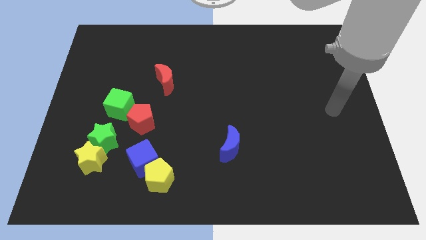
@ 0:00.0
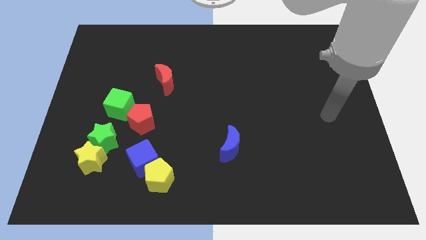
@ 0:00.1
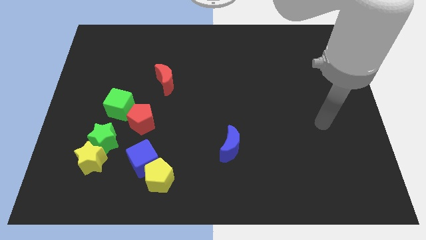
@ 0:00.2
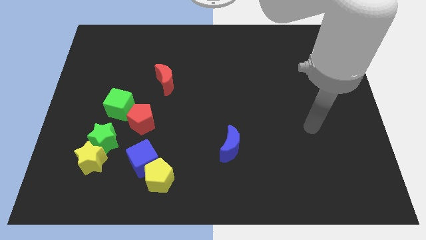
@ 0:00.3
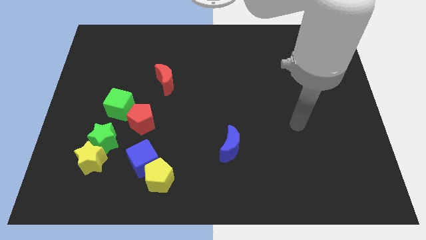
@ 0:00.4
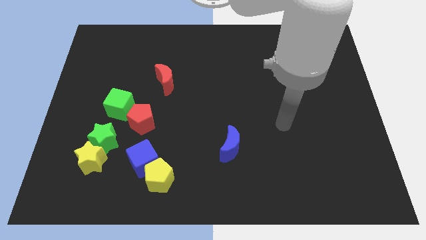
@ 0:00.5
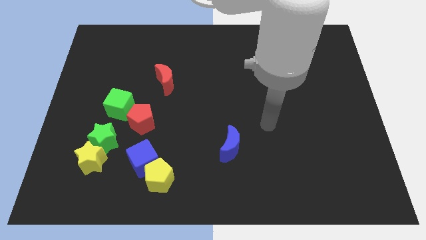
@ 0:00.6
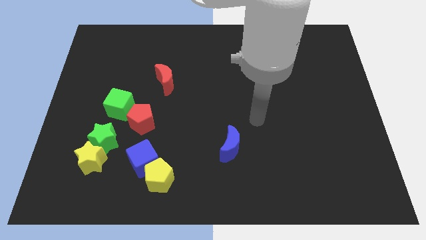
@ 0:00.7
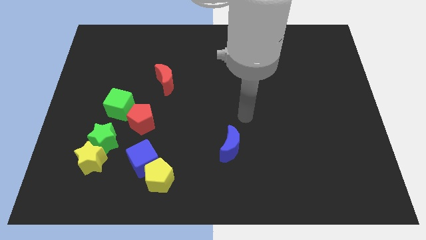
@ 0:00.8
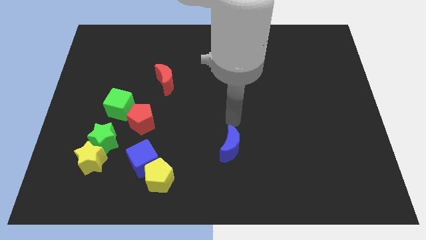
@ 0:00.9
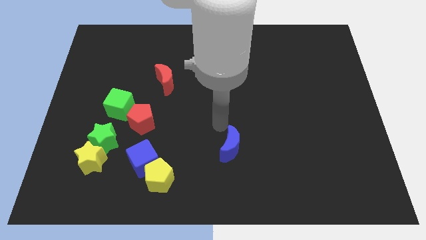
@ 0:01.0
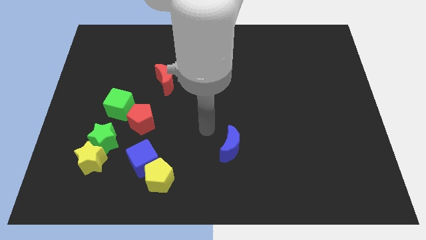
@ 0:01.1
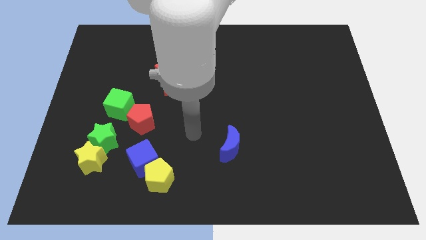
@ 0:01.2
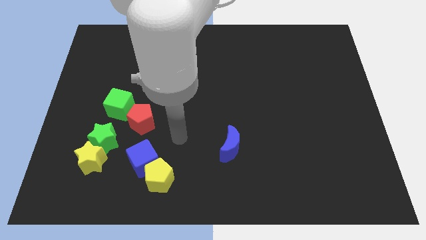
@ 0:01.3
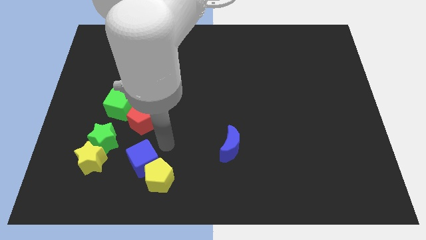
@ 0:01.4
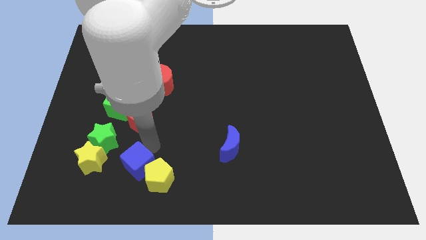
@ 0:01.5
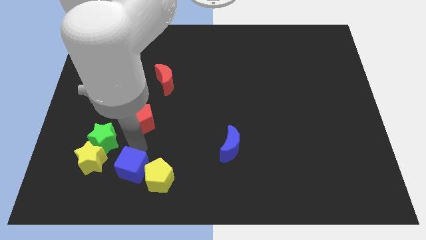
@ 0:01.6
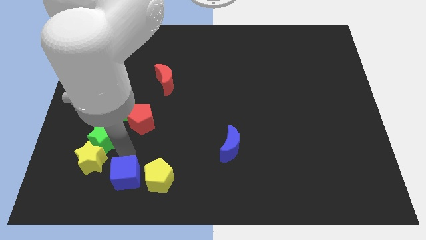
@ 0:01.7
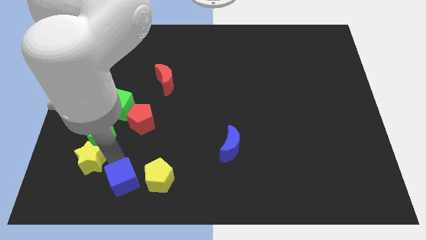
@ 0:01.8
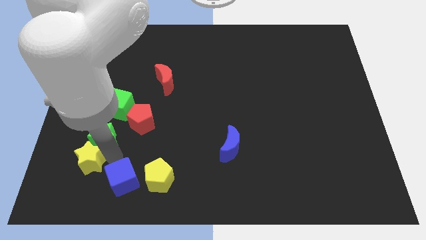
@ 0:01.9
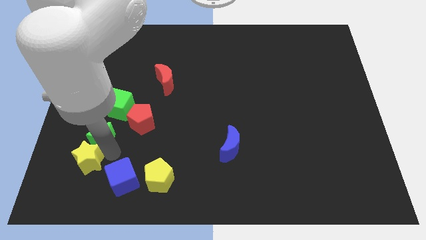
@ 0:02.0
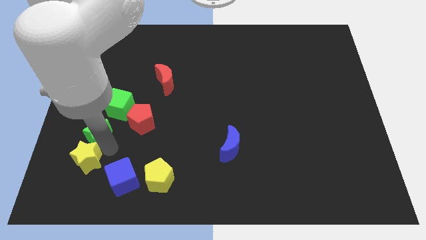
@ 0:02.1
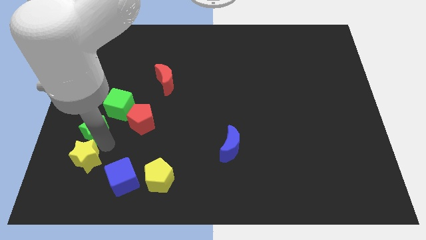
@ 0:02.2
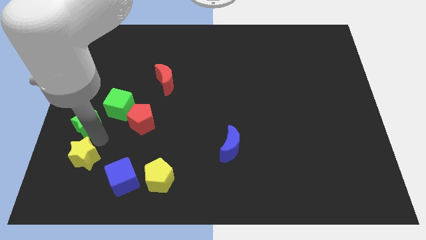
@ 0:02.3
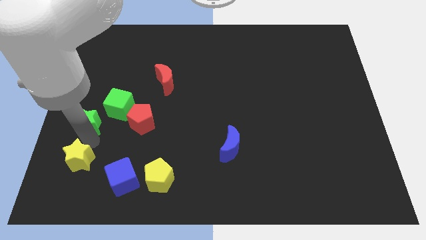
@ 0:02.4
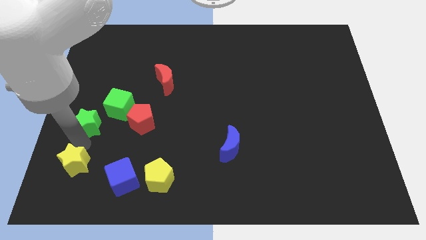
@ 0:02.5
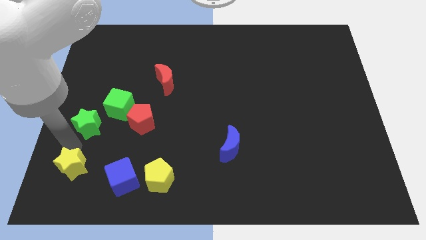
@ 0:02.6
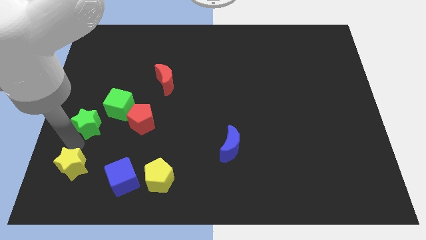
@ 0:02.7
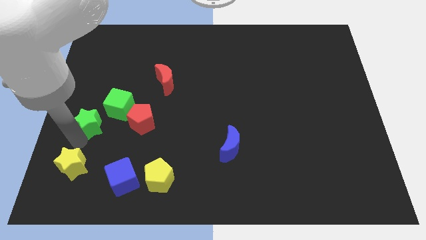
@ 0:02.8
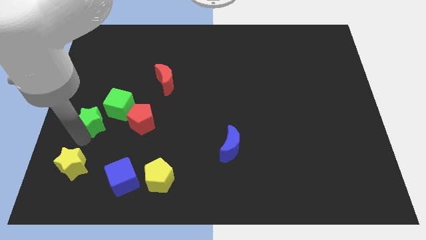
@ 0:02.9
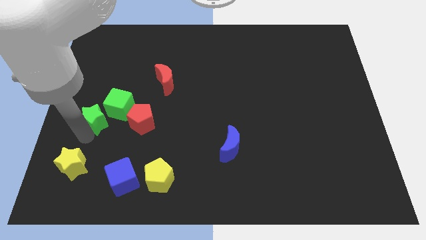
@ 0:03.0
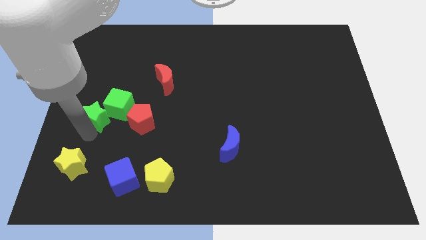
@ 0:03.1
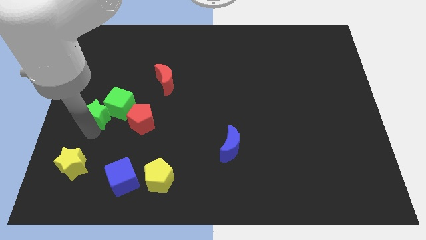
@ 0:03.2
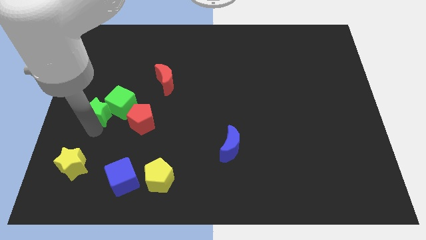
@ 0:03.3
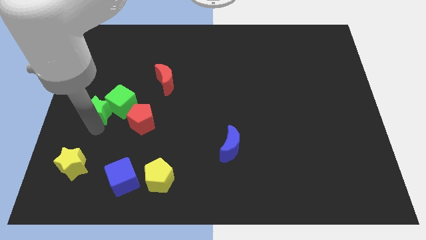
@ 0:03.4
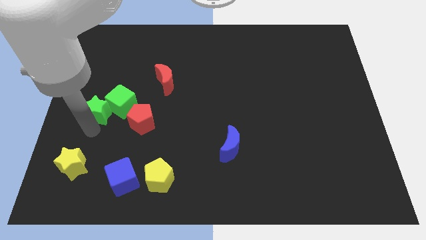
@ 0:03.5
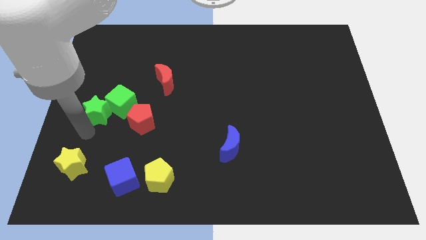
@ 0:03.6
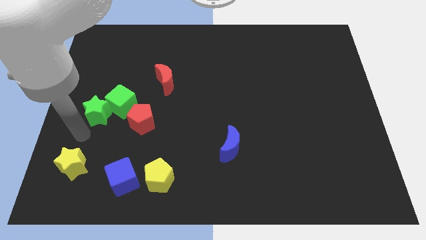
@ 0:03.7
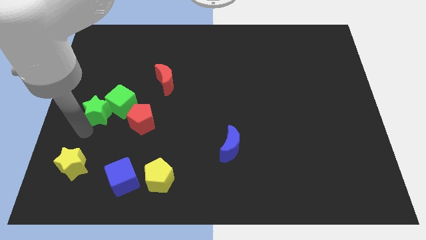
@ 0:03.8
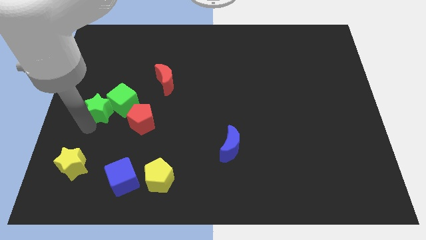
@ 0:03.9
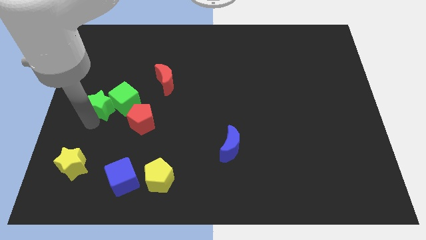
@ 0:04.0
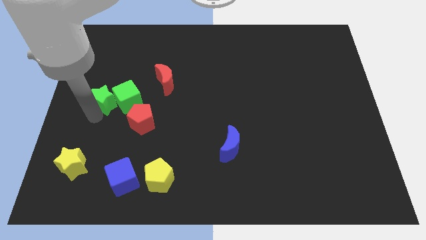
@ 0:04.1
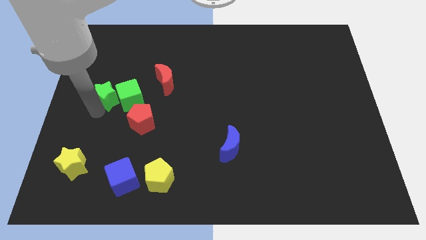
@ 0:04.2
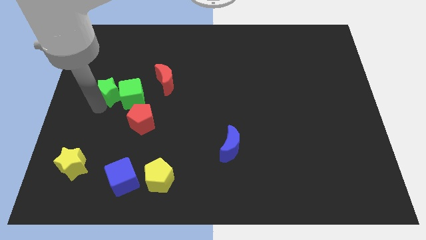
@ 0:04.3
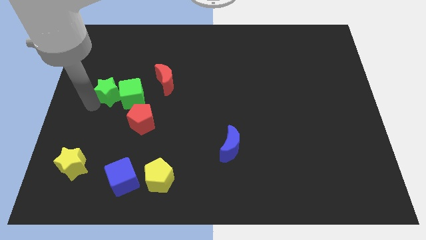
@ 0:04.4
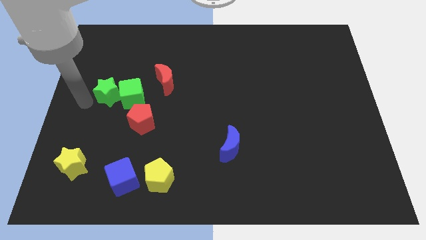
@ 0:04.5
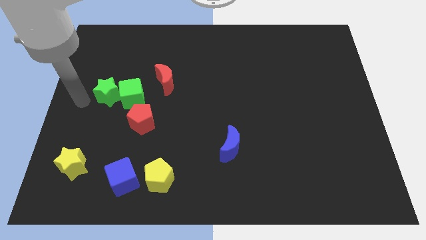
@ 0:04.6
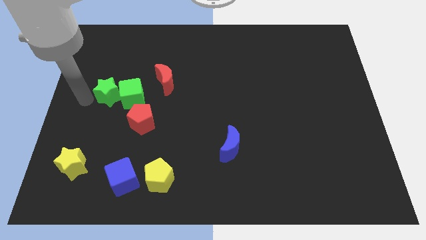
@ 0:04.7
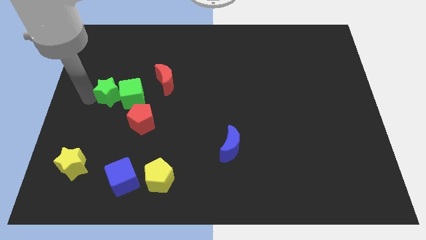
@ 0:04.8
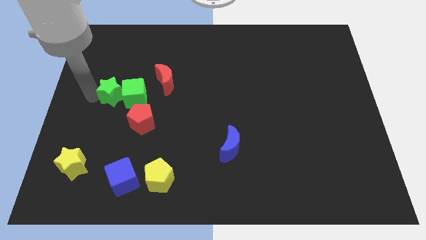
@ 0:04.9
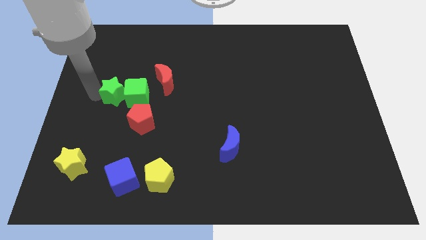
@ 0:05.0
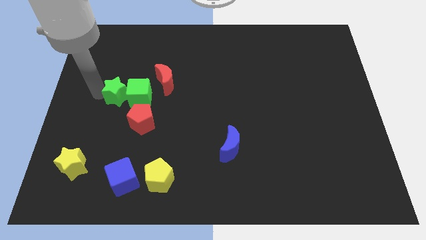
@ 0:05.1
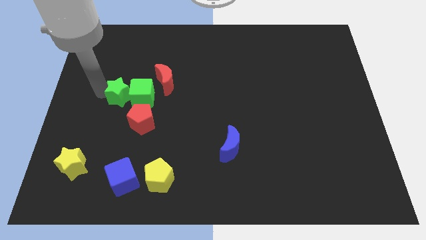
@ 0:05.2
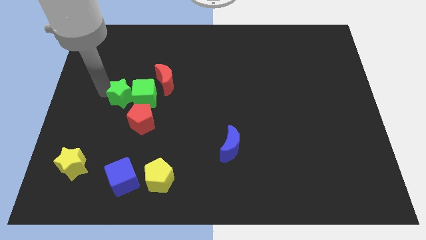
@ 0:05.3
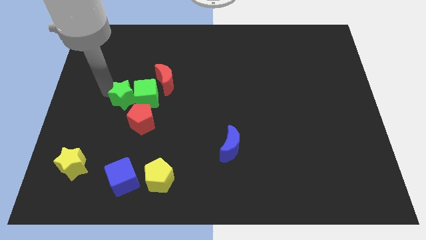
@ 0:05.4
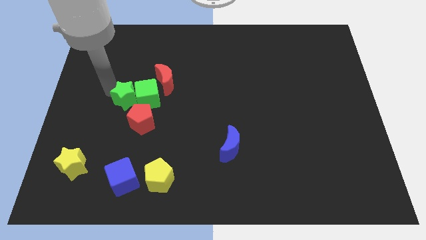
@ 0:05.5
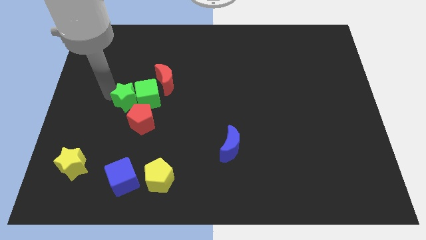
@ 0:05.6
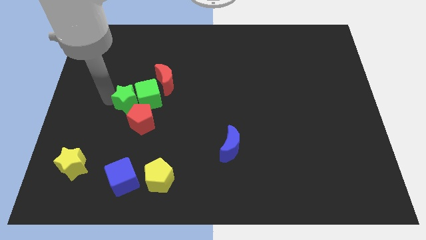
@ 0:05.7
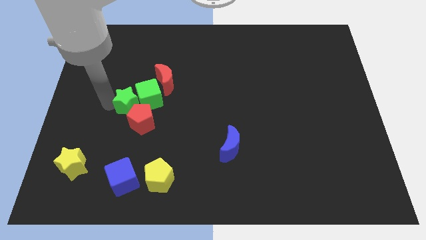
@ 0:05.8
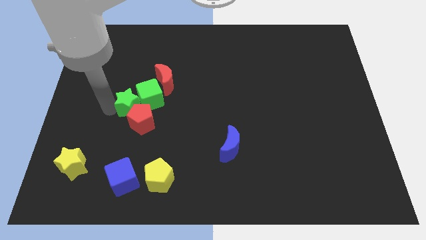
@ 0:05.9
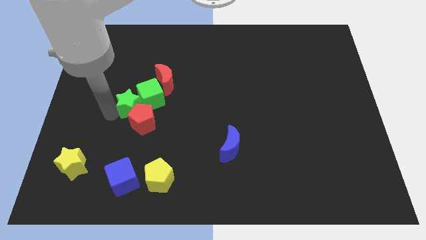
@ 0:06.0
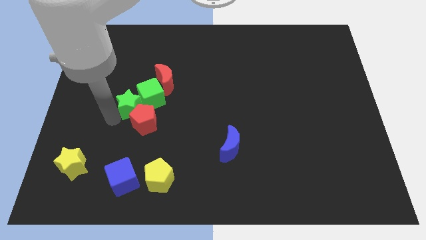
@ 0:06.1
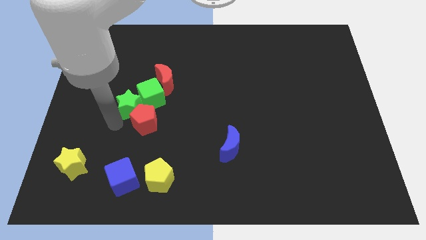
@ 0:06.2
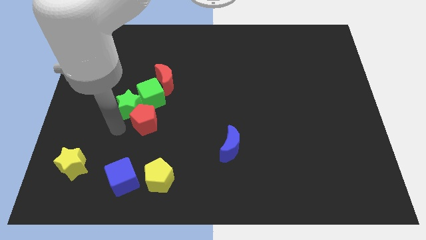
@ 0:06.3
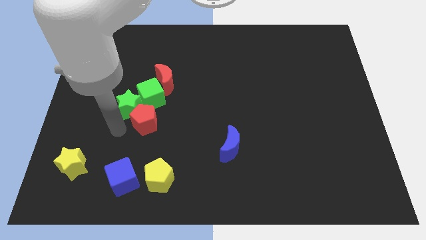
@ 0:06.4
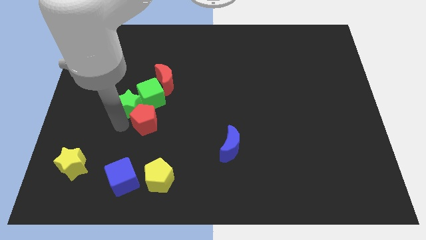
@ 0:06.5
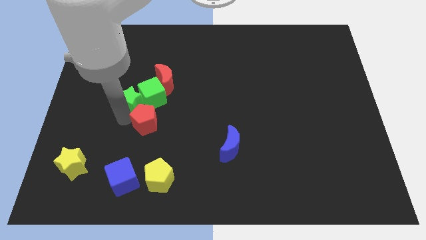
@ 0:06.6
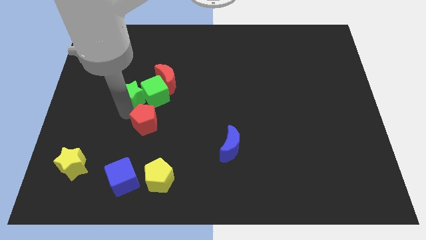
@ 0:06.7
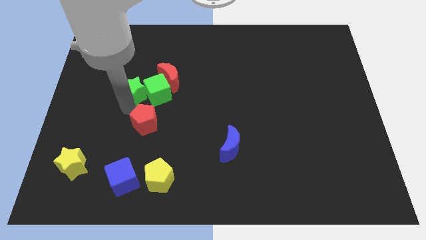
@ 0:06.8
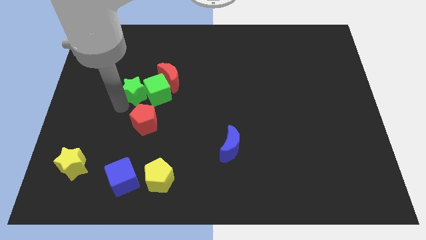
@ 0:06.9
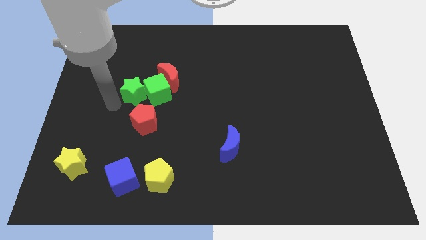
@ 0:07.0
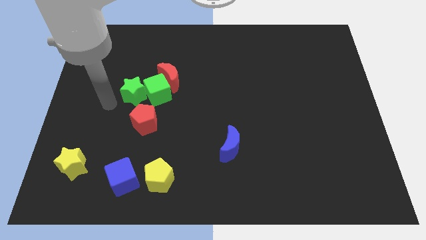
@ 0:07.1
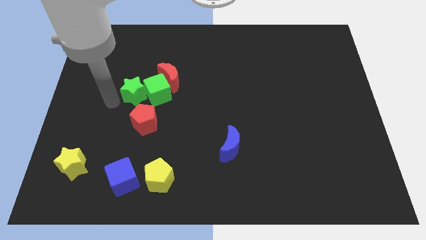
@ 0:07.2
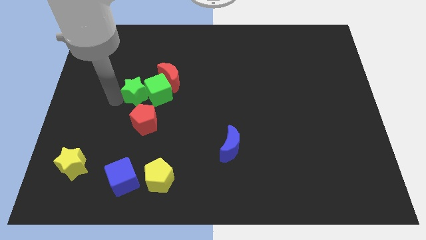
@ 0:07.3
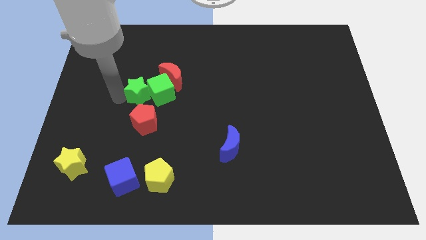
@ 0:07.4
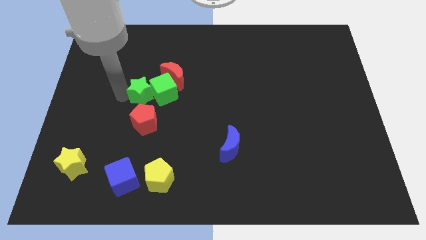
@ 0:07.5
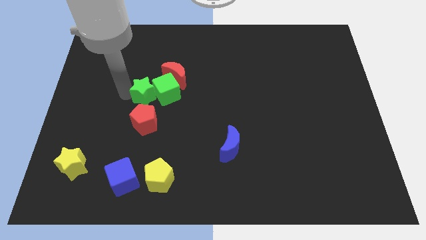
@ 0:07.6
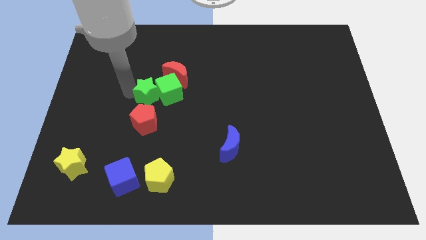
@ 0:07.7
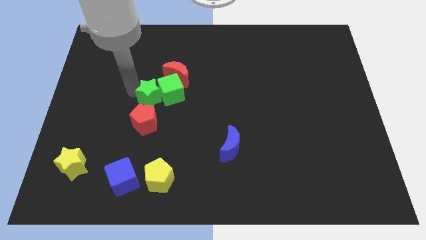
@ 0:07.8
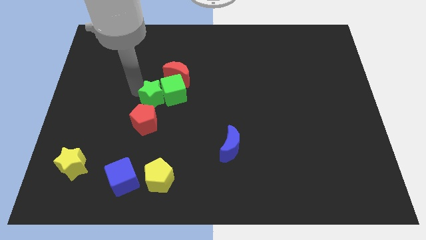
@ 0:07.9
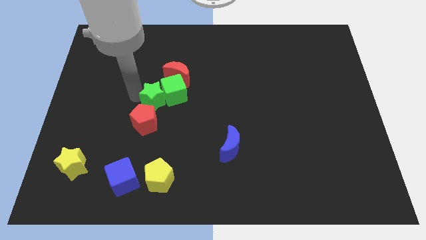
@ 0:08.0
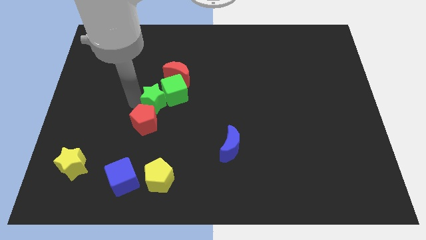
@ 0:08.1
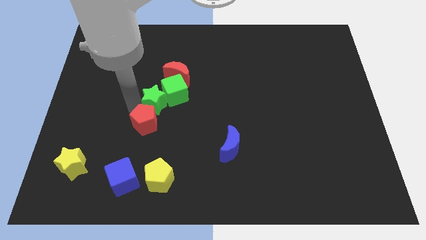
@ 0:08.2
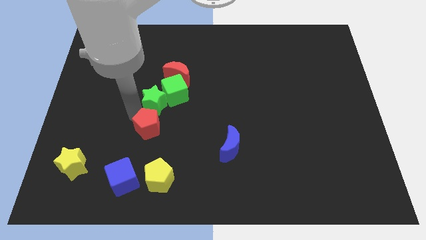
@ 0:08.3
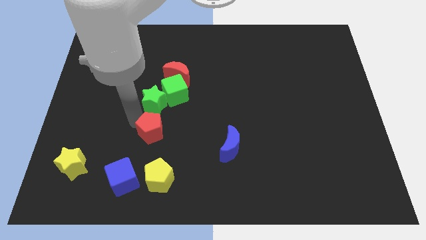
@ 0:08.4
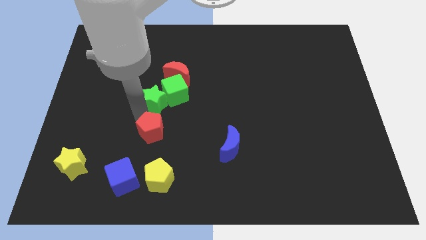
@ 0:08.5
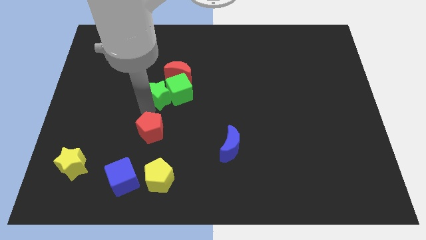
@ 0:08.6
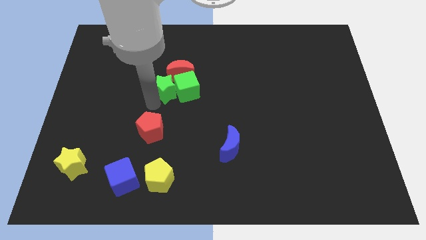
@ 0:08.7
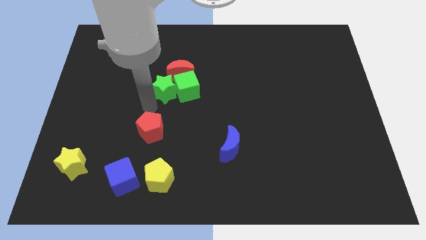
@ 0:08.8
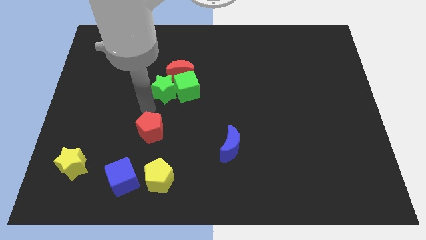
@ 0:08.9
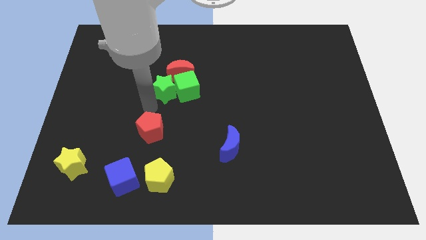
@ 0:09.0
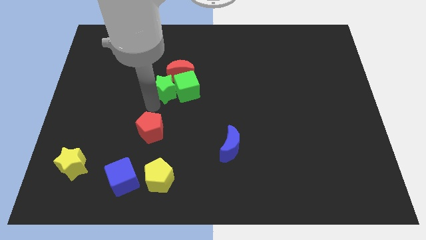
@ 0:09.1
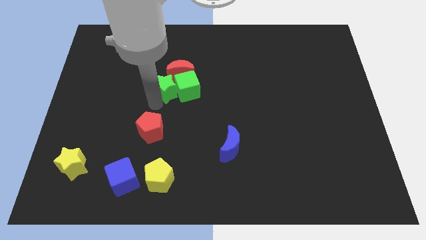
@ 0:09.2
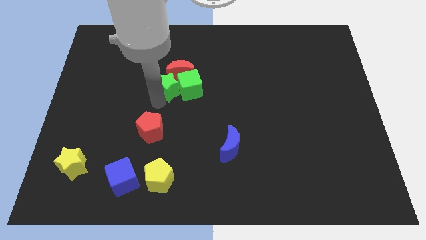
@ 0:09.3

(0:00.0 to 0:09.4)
slide the green star to the red moon
